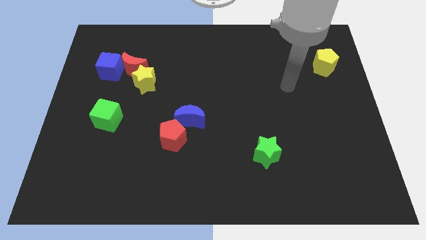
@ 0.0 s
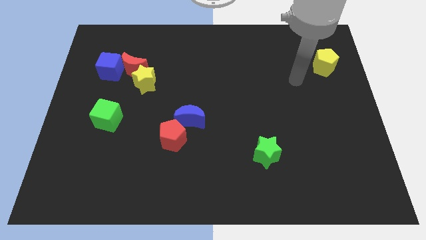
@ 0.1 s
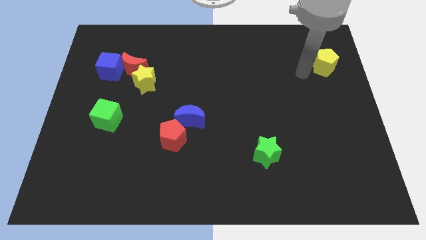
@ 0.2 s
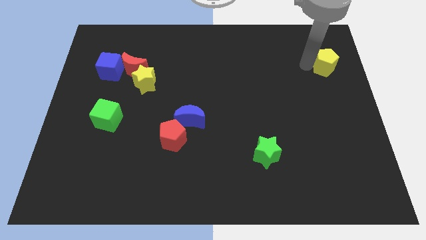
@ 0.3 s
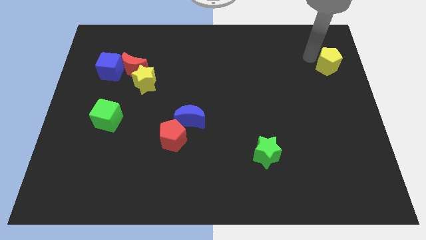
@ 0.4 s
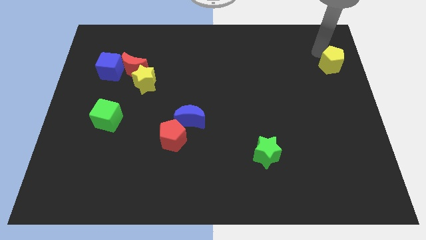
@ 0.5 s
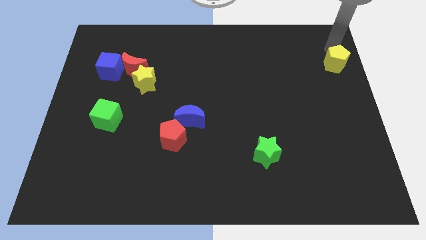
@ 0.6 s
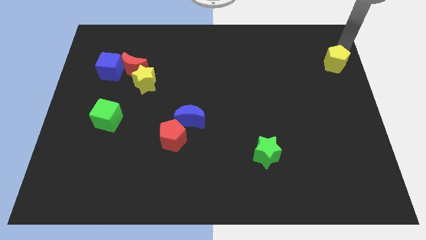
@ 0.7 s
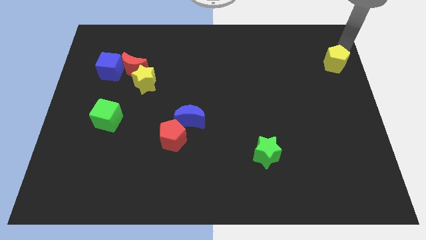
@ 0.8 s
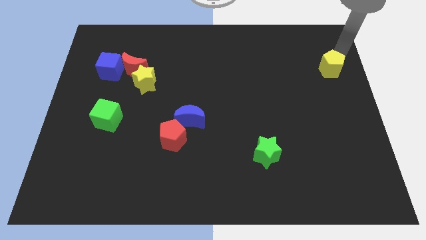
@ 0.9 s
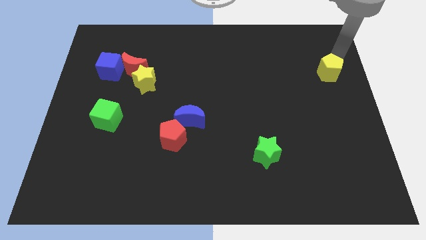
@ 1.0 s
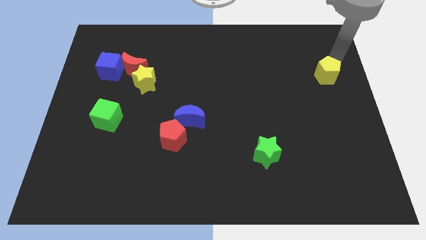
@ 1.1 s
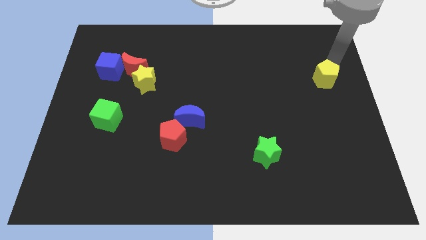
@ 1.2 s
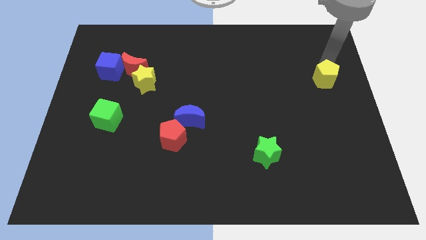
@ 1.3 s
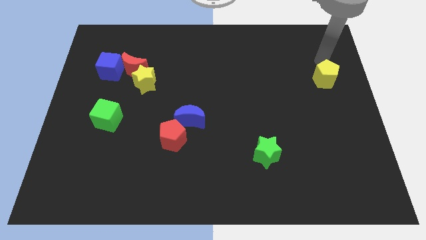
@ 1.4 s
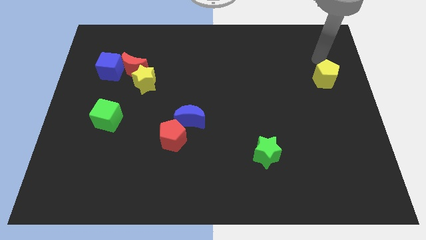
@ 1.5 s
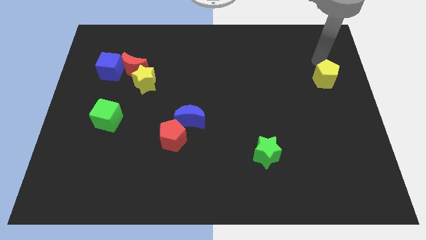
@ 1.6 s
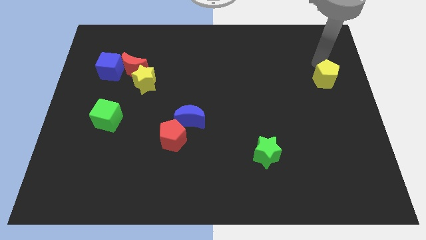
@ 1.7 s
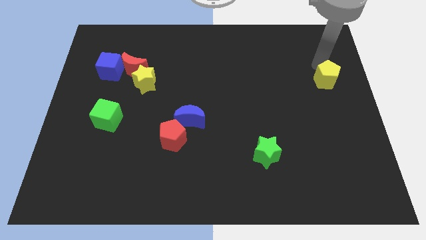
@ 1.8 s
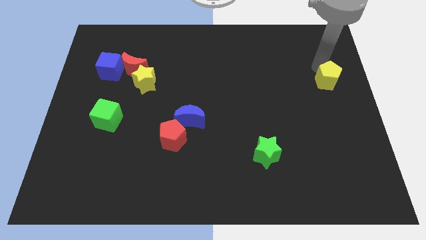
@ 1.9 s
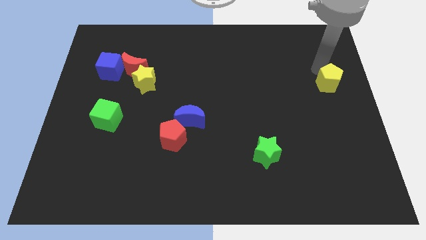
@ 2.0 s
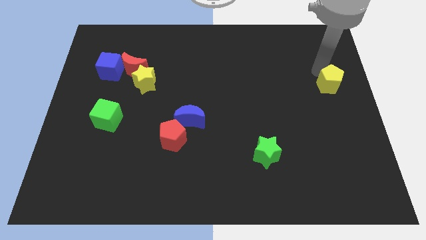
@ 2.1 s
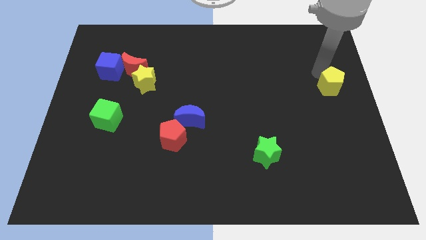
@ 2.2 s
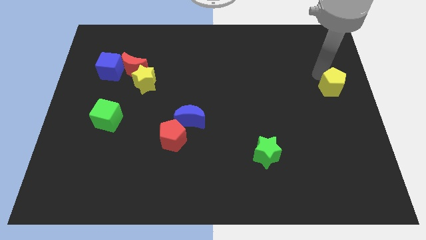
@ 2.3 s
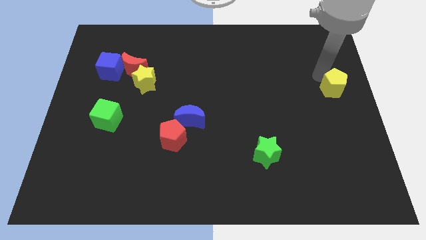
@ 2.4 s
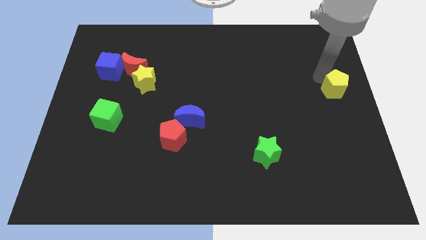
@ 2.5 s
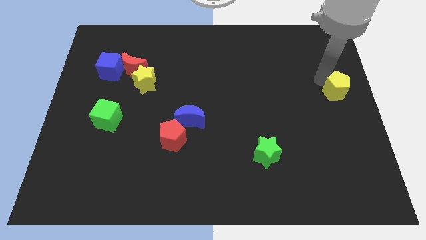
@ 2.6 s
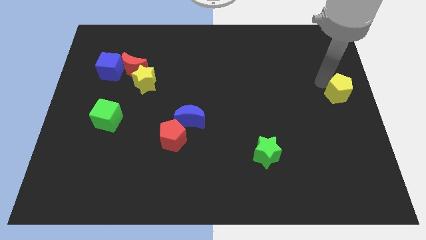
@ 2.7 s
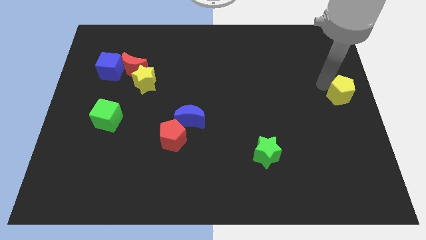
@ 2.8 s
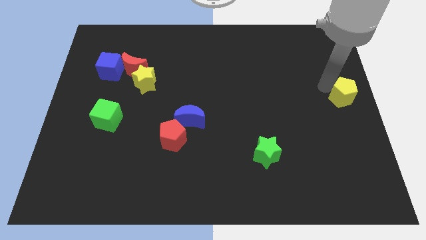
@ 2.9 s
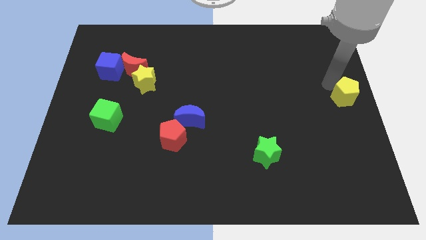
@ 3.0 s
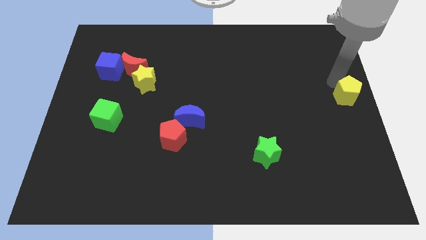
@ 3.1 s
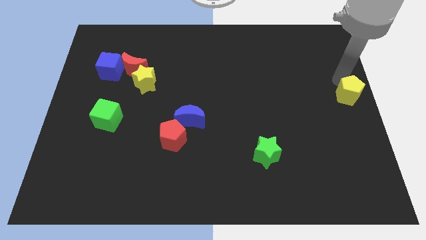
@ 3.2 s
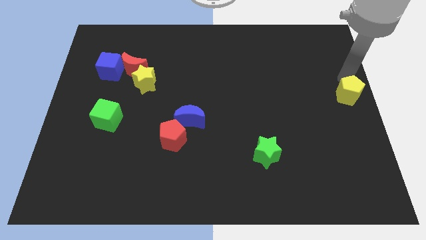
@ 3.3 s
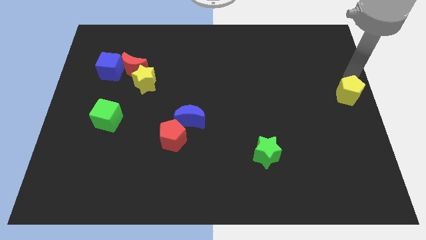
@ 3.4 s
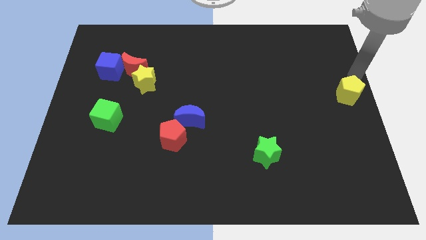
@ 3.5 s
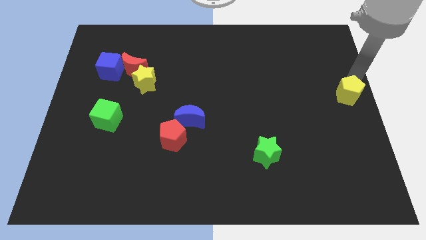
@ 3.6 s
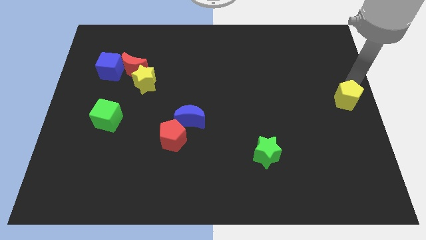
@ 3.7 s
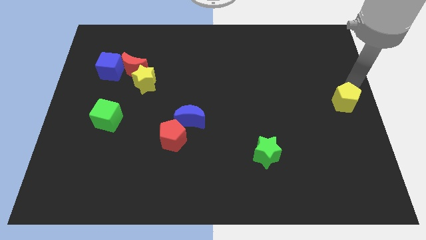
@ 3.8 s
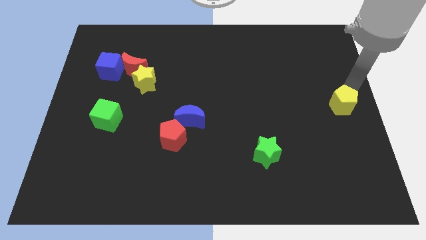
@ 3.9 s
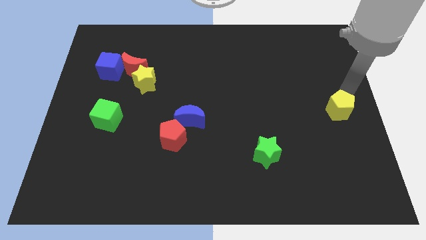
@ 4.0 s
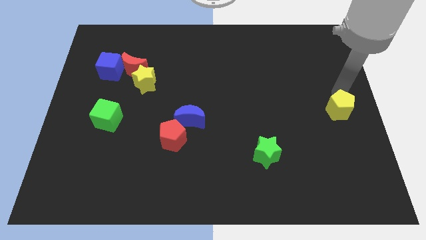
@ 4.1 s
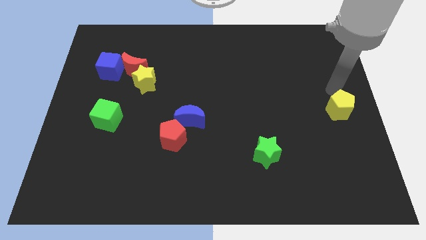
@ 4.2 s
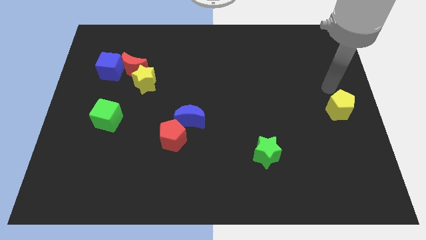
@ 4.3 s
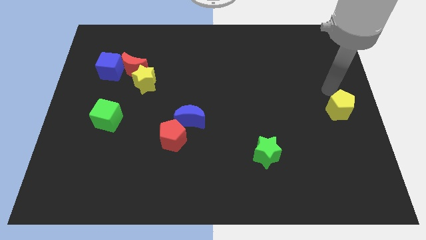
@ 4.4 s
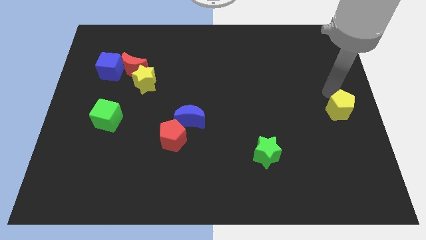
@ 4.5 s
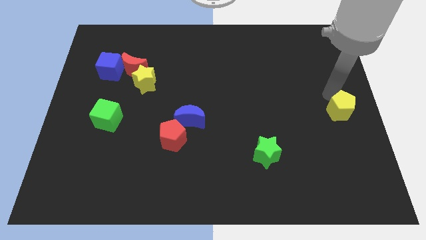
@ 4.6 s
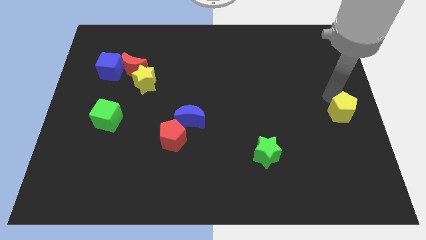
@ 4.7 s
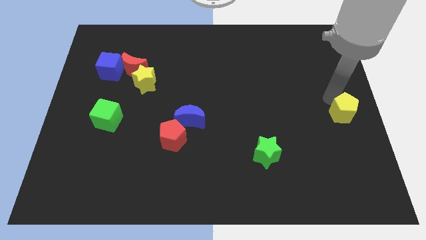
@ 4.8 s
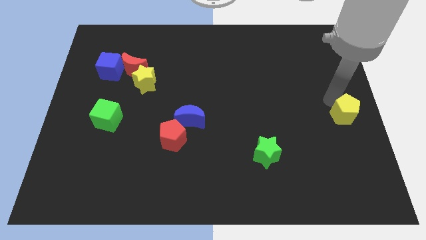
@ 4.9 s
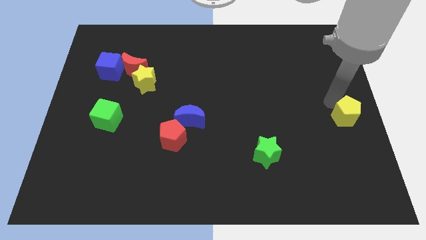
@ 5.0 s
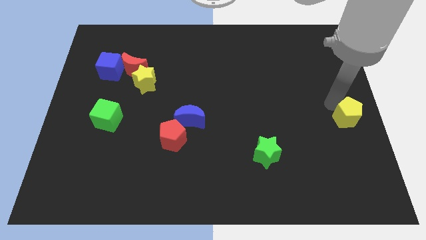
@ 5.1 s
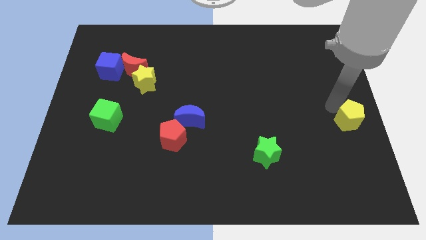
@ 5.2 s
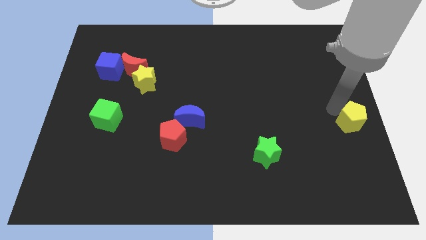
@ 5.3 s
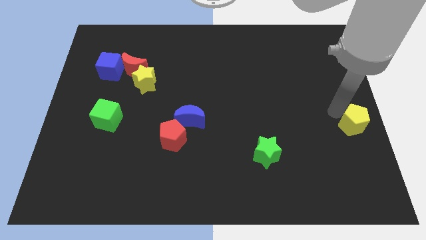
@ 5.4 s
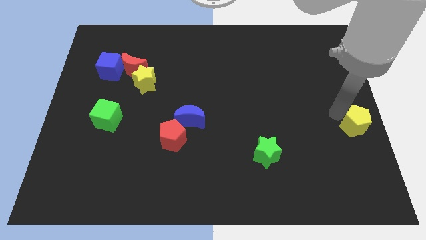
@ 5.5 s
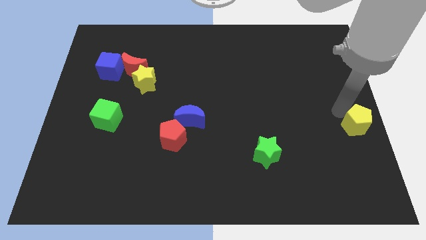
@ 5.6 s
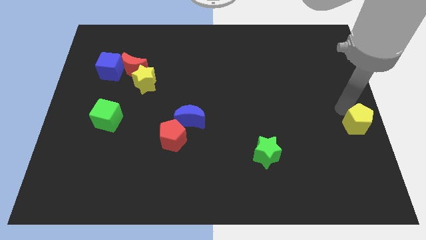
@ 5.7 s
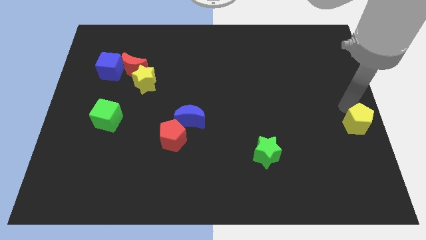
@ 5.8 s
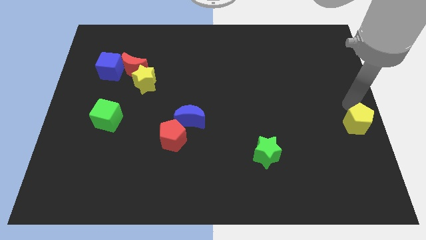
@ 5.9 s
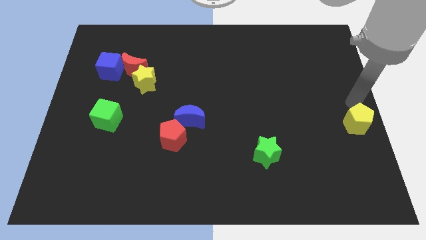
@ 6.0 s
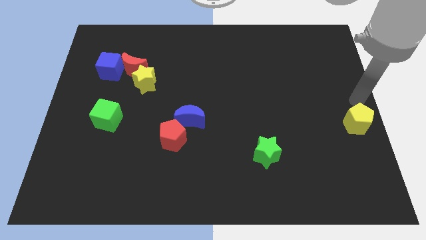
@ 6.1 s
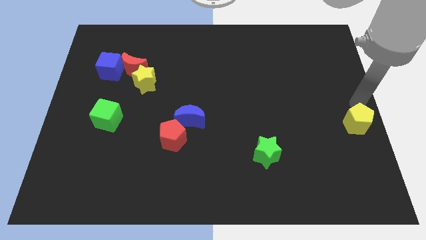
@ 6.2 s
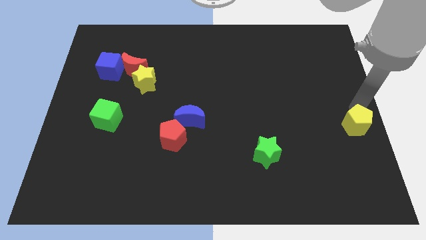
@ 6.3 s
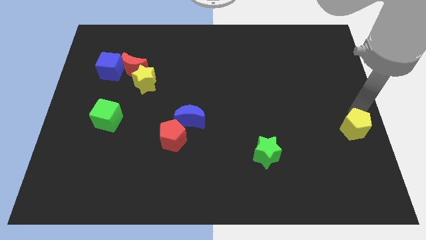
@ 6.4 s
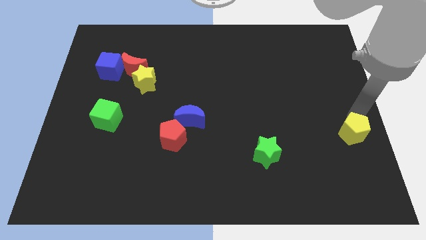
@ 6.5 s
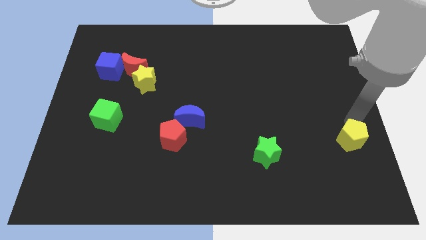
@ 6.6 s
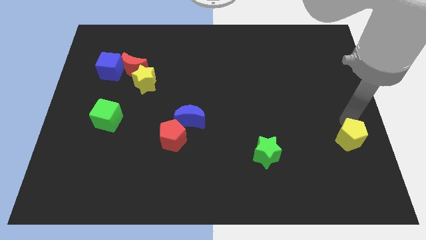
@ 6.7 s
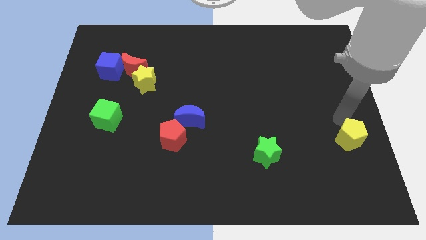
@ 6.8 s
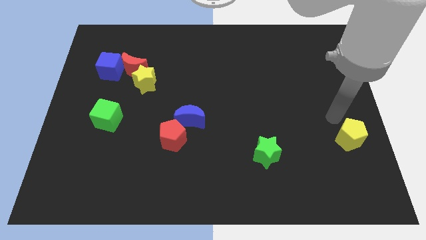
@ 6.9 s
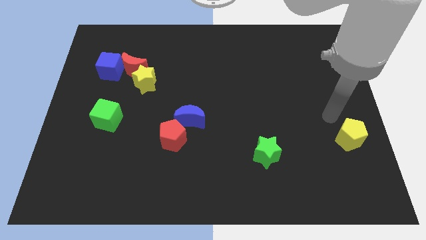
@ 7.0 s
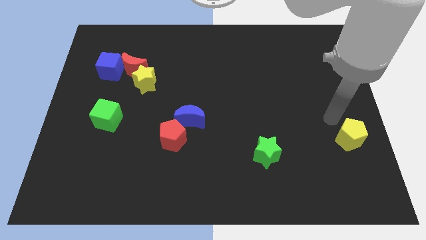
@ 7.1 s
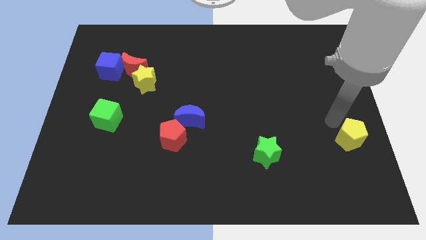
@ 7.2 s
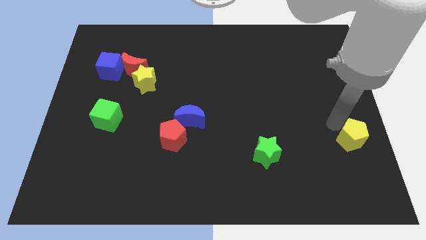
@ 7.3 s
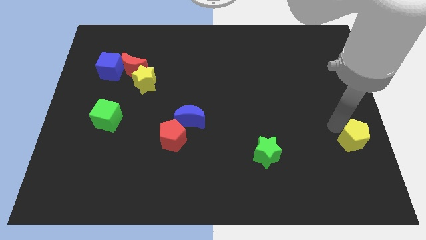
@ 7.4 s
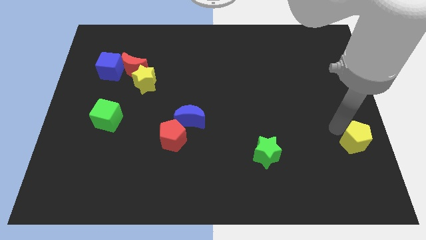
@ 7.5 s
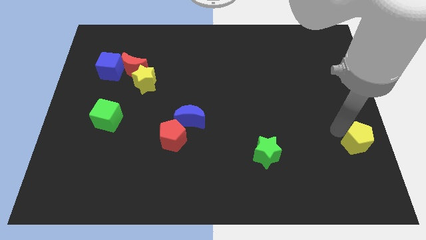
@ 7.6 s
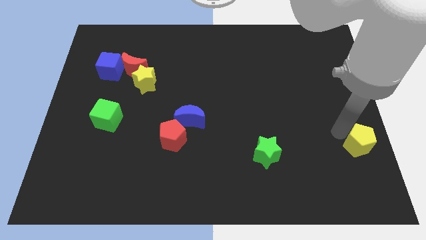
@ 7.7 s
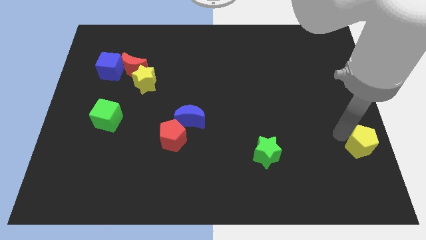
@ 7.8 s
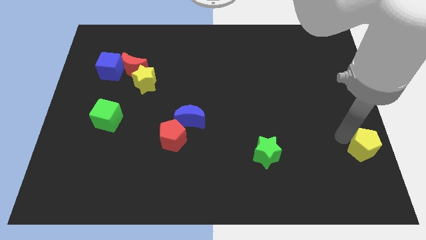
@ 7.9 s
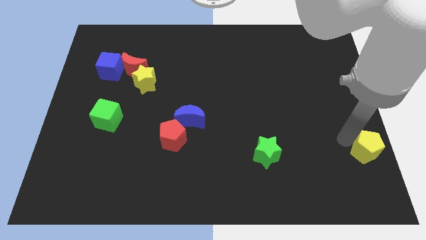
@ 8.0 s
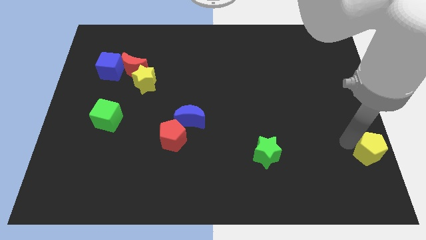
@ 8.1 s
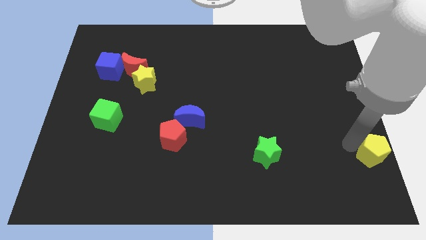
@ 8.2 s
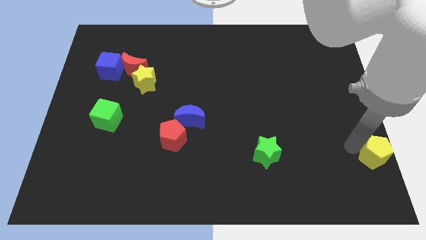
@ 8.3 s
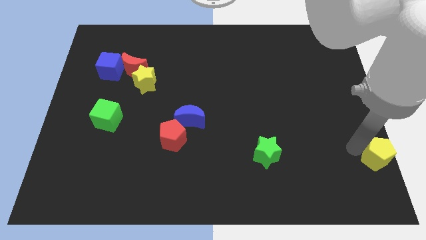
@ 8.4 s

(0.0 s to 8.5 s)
push the yellow pentagon to the bottom right corner
